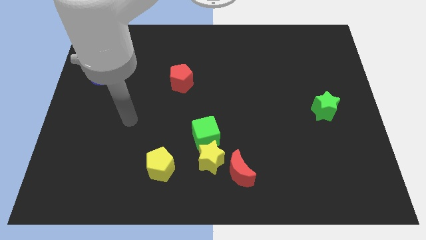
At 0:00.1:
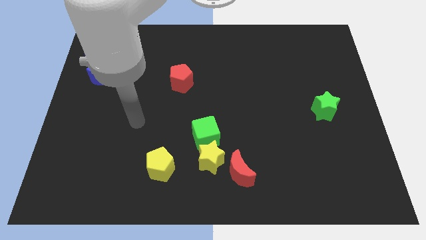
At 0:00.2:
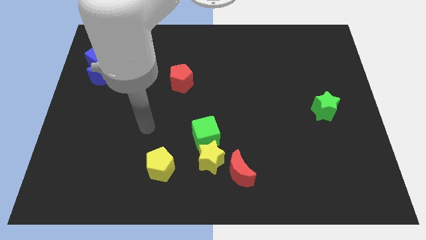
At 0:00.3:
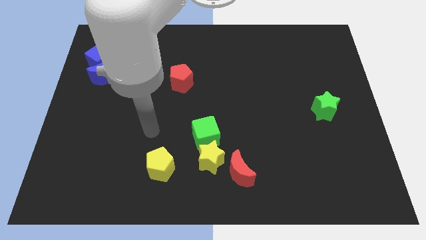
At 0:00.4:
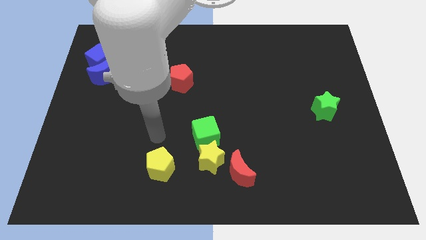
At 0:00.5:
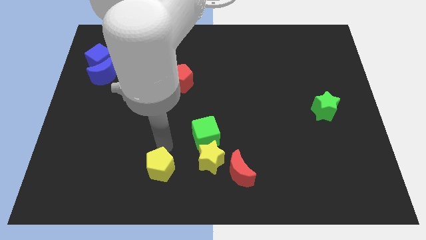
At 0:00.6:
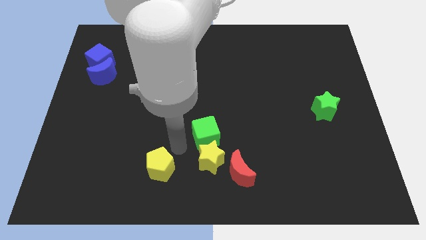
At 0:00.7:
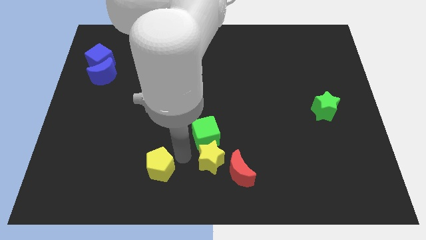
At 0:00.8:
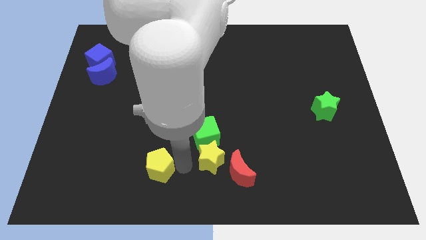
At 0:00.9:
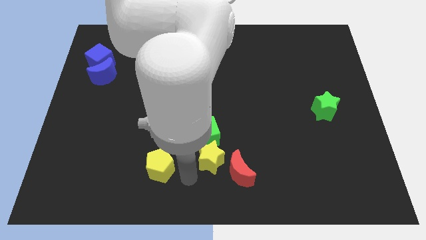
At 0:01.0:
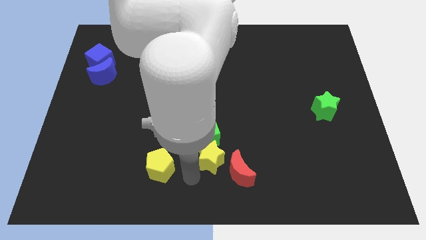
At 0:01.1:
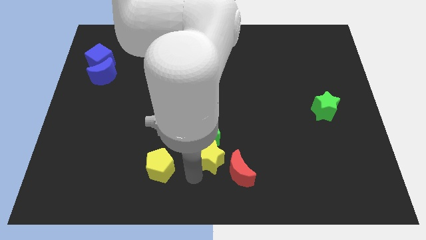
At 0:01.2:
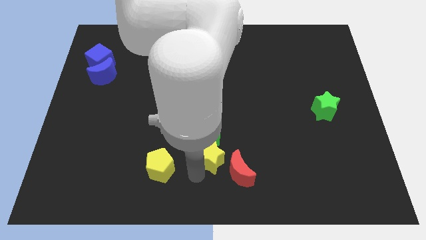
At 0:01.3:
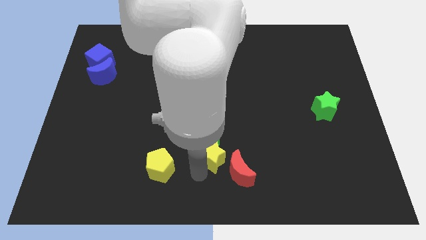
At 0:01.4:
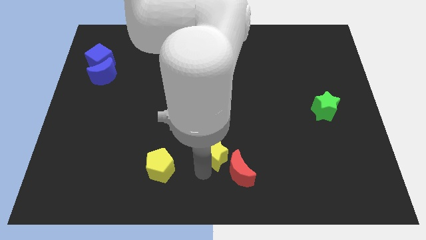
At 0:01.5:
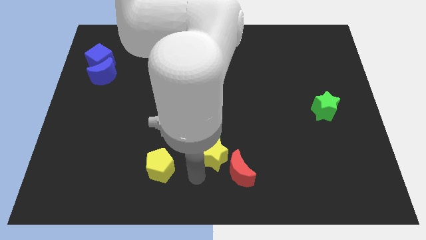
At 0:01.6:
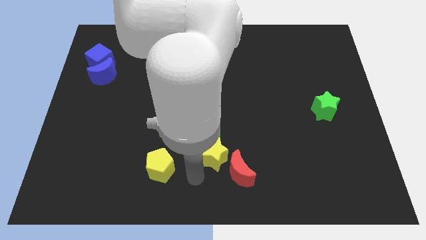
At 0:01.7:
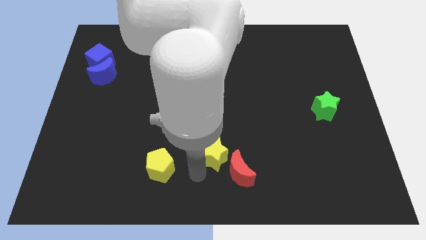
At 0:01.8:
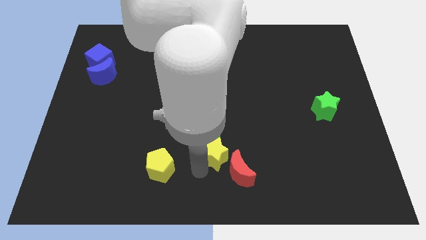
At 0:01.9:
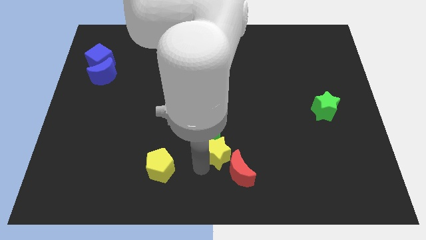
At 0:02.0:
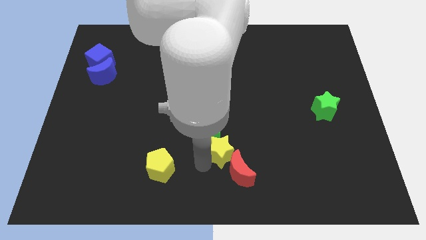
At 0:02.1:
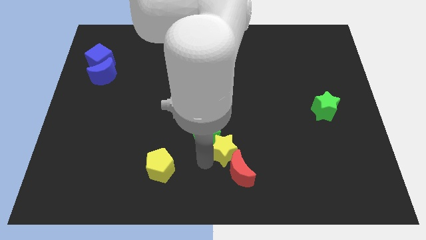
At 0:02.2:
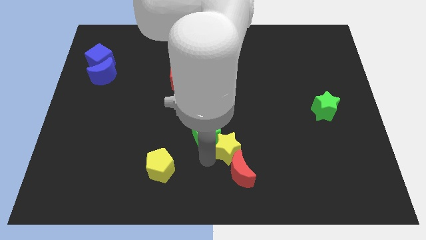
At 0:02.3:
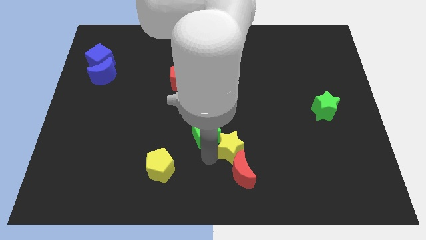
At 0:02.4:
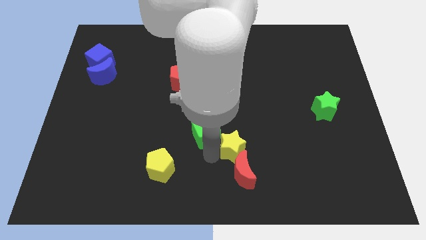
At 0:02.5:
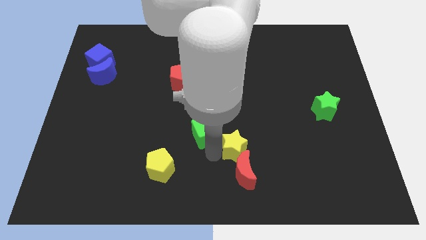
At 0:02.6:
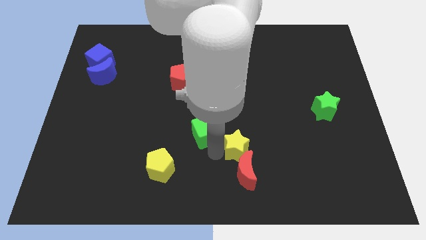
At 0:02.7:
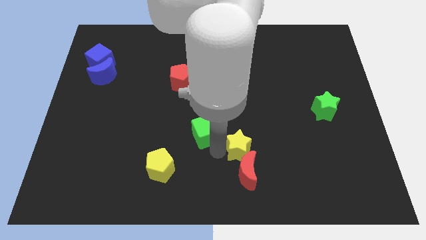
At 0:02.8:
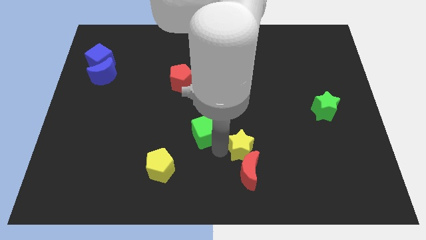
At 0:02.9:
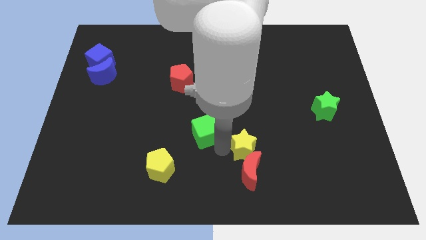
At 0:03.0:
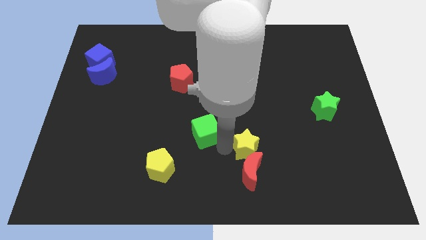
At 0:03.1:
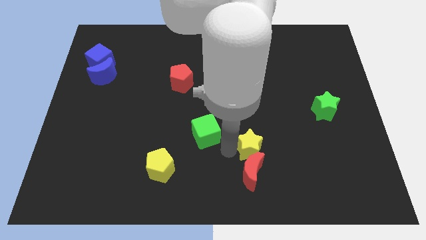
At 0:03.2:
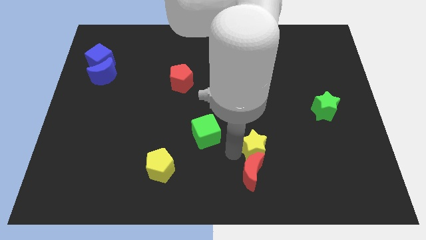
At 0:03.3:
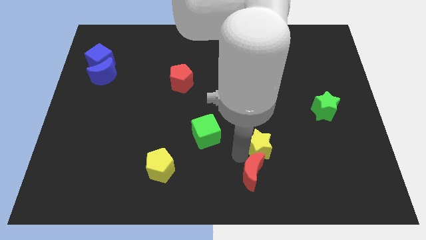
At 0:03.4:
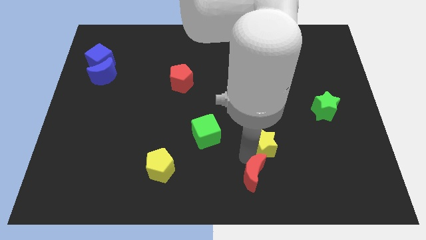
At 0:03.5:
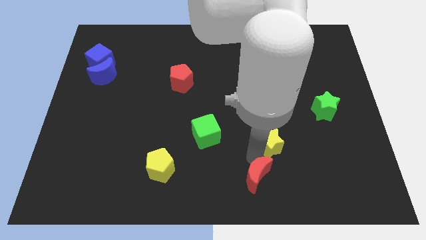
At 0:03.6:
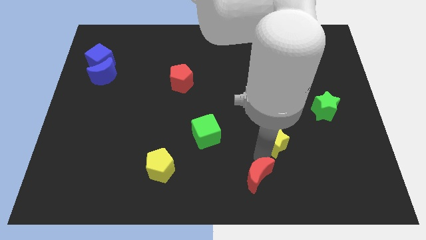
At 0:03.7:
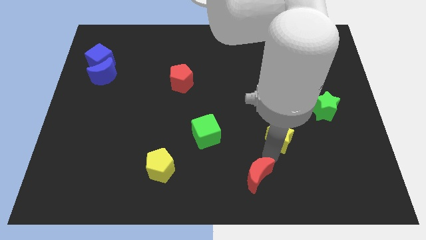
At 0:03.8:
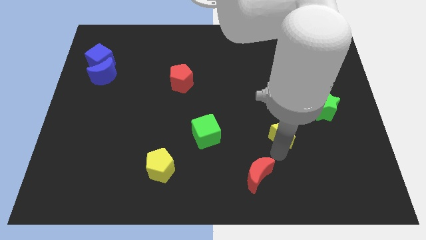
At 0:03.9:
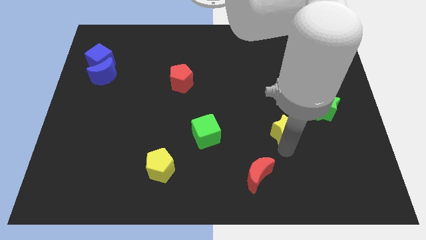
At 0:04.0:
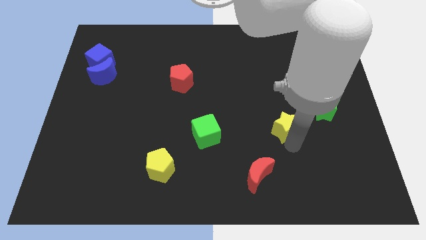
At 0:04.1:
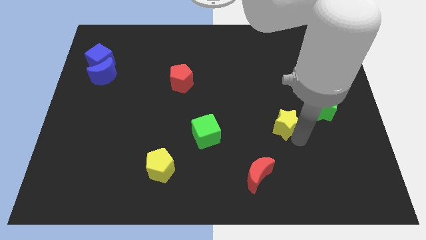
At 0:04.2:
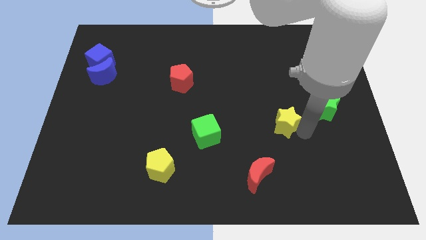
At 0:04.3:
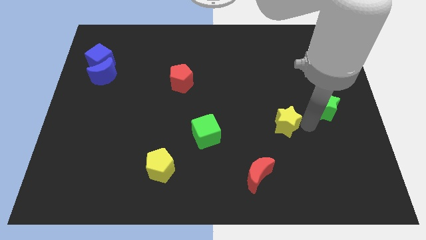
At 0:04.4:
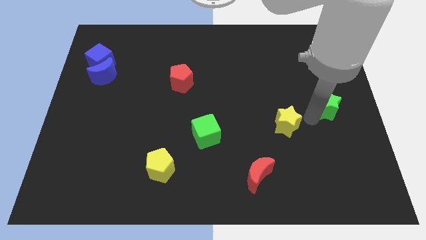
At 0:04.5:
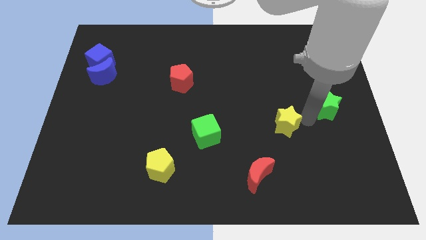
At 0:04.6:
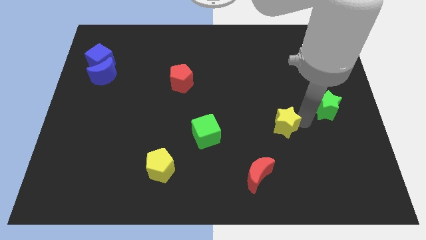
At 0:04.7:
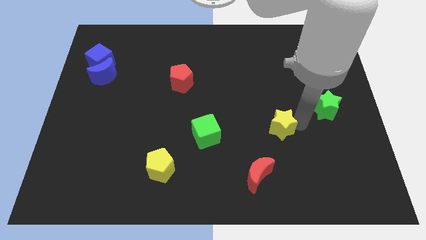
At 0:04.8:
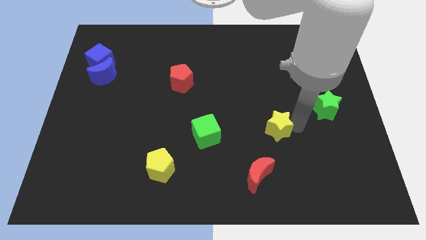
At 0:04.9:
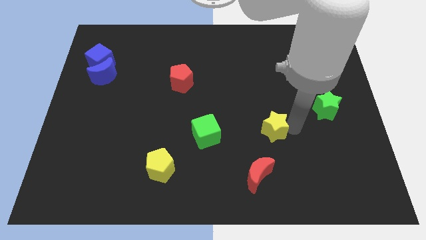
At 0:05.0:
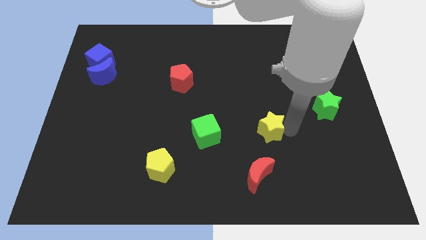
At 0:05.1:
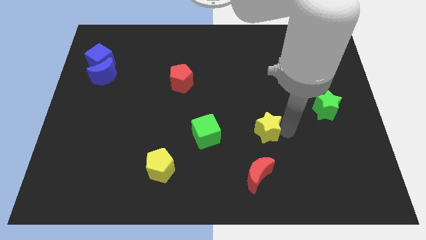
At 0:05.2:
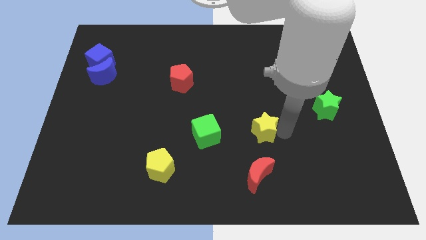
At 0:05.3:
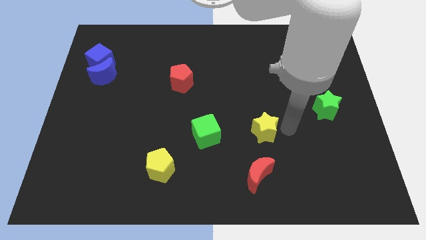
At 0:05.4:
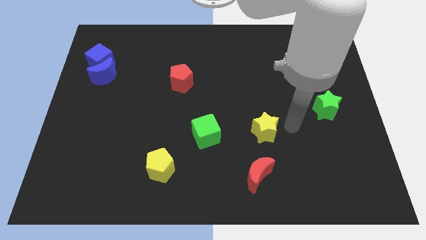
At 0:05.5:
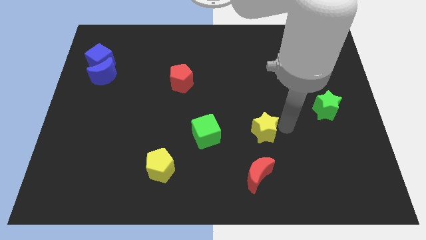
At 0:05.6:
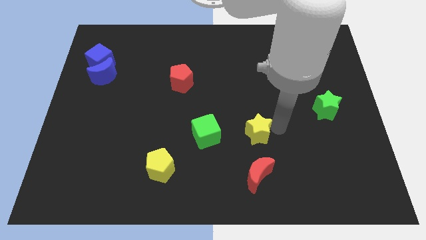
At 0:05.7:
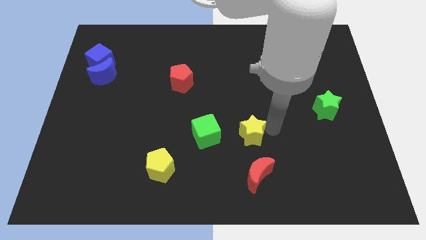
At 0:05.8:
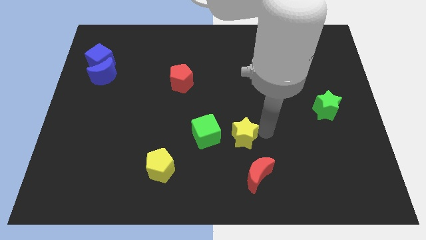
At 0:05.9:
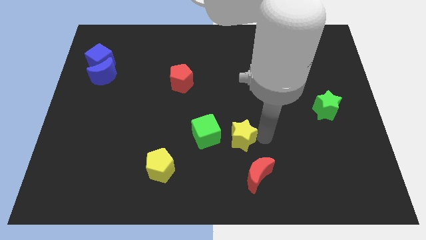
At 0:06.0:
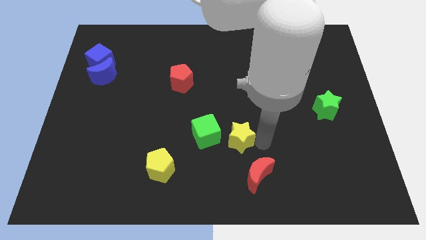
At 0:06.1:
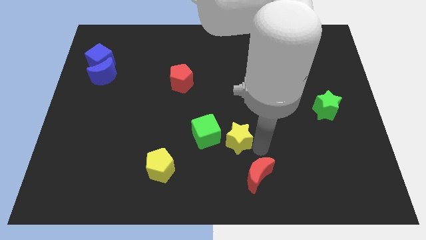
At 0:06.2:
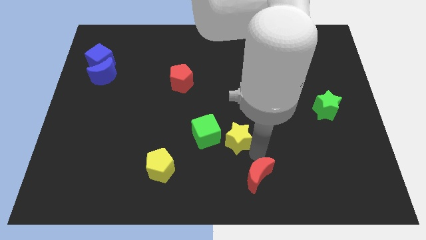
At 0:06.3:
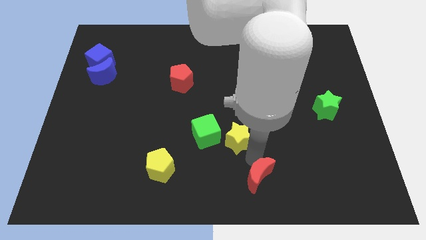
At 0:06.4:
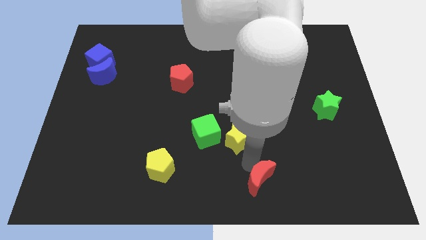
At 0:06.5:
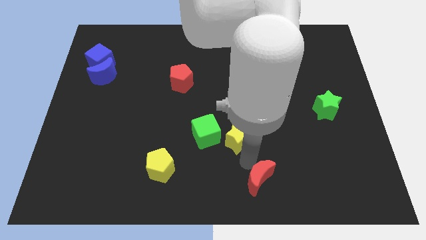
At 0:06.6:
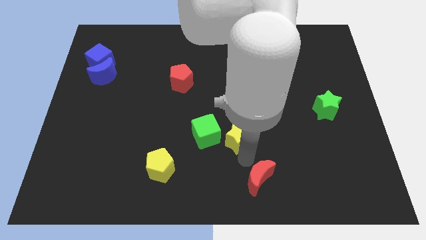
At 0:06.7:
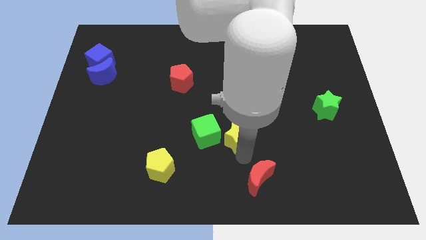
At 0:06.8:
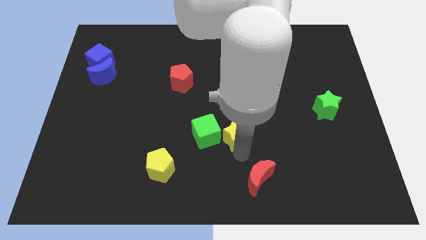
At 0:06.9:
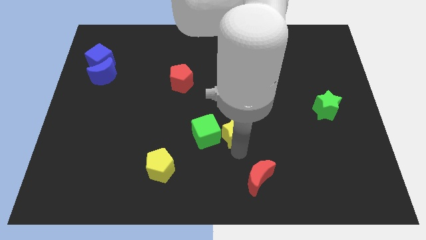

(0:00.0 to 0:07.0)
slide the yellow star to the top right of the green cube
